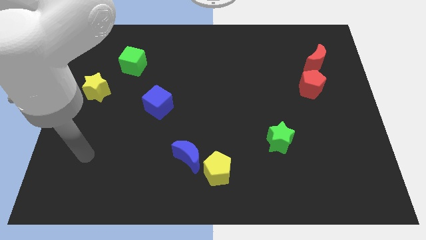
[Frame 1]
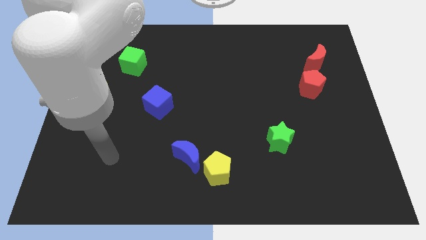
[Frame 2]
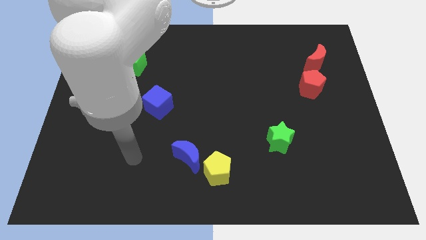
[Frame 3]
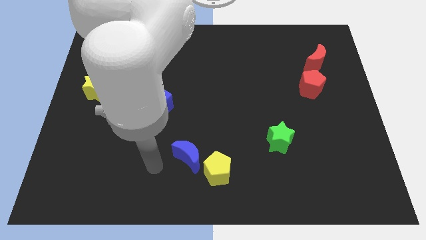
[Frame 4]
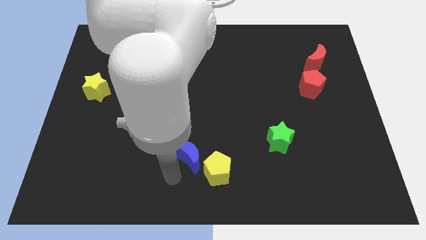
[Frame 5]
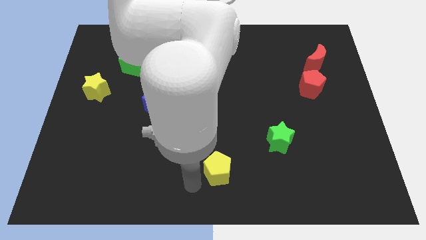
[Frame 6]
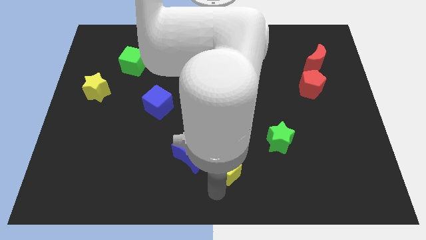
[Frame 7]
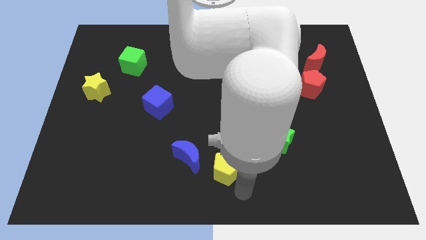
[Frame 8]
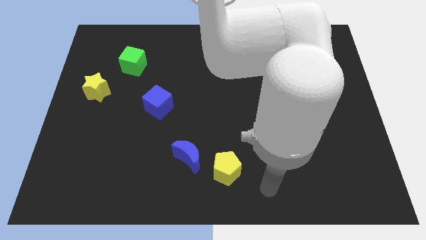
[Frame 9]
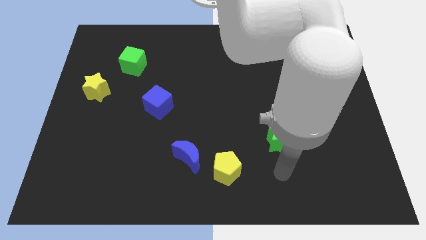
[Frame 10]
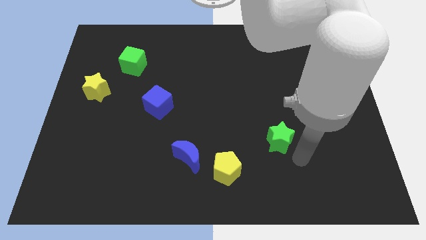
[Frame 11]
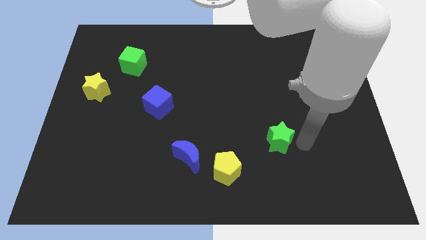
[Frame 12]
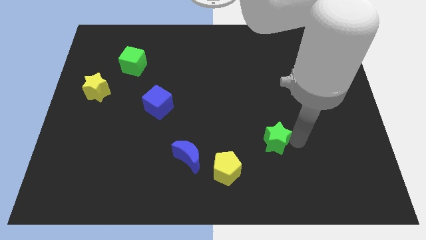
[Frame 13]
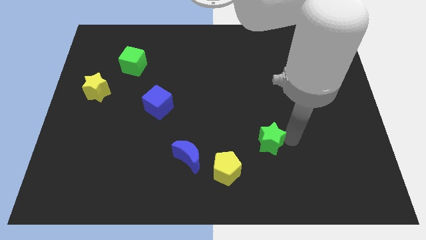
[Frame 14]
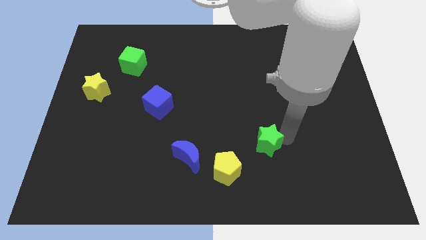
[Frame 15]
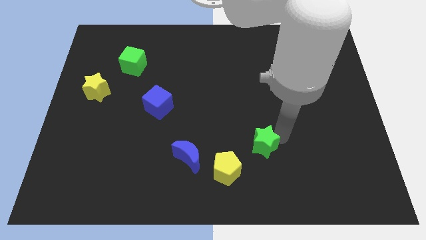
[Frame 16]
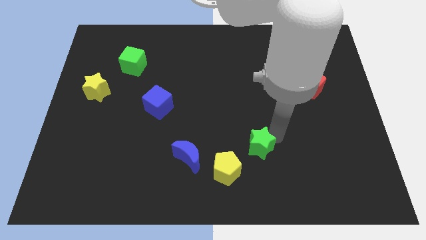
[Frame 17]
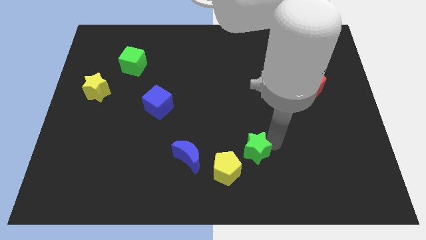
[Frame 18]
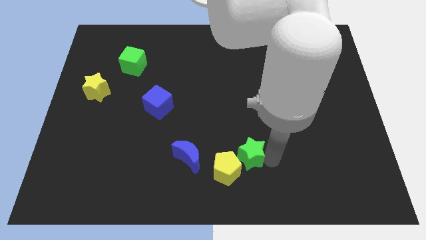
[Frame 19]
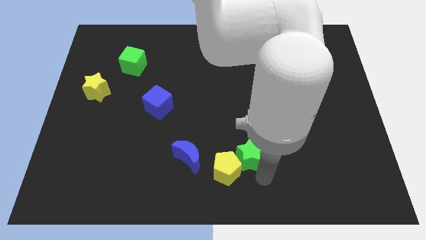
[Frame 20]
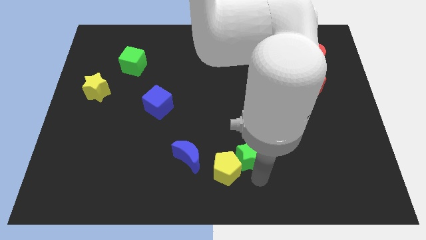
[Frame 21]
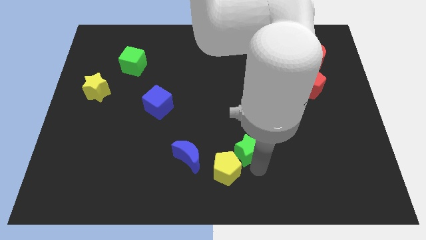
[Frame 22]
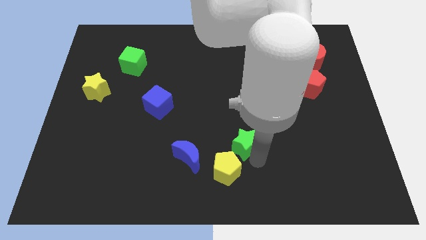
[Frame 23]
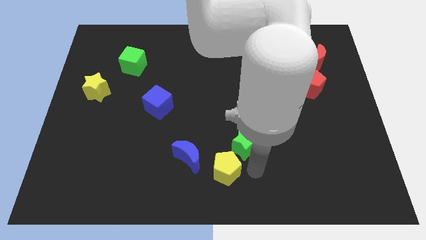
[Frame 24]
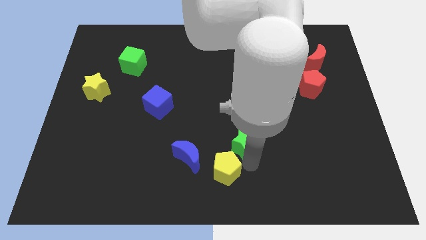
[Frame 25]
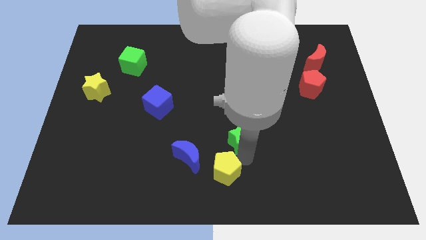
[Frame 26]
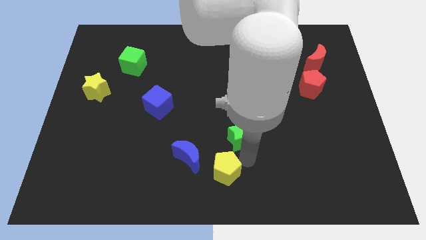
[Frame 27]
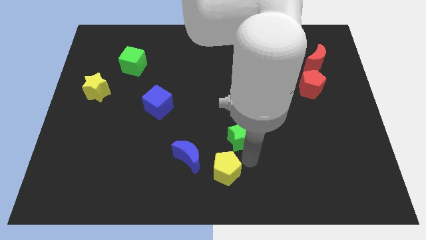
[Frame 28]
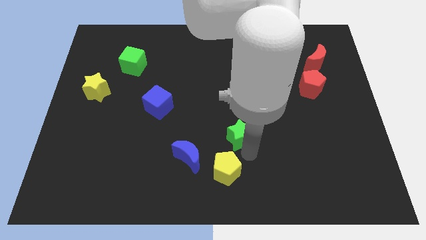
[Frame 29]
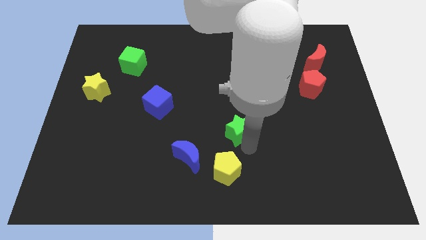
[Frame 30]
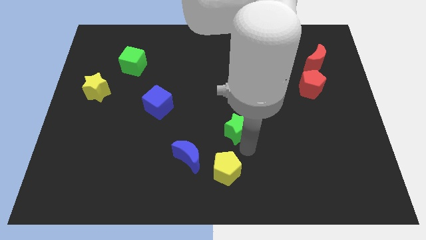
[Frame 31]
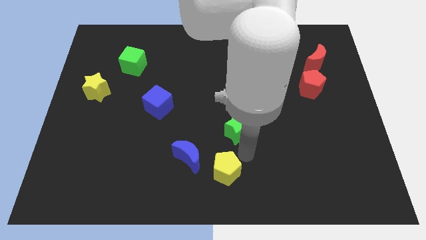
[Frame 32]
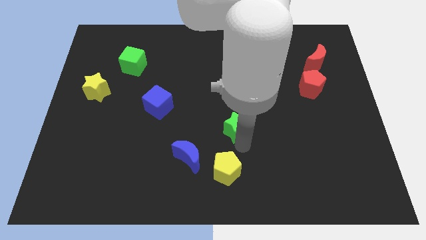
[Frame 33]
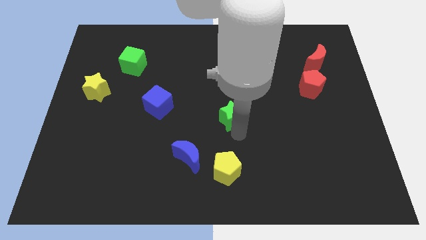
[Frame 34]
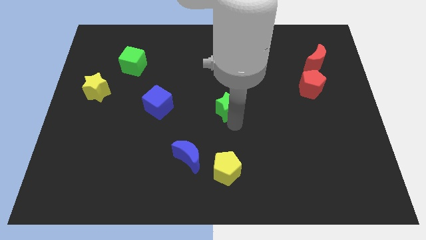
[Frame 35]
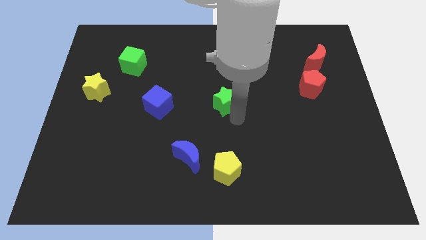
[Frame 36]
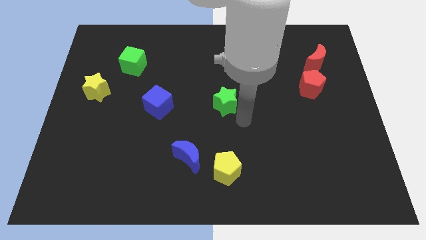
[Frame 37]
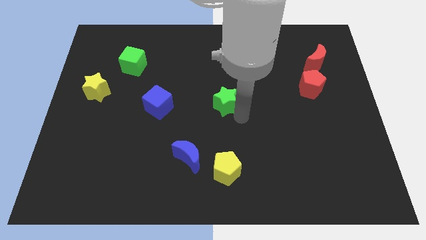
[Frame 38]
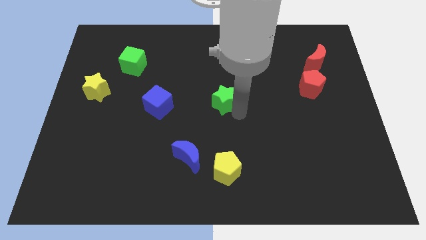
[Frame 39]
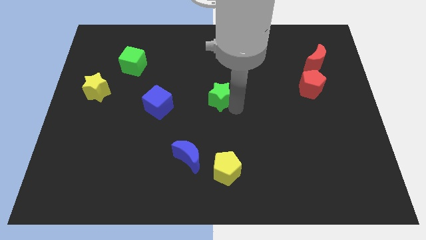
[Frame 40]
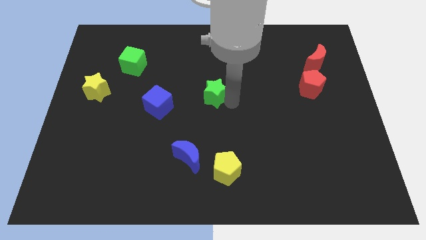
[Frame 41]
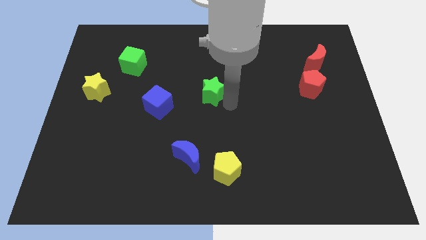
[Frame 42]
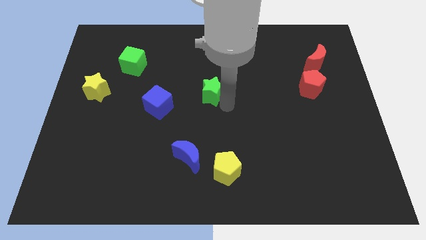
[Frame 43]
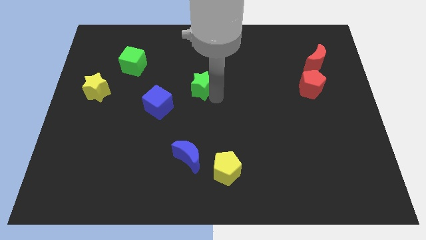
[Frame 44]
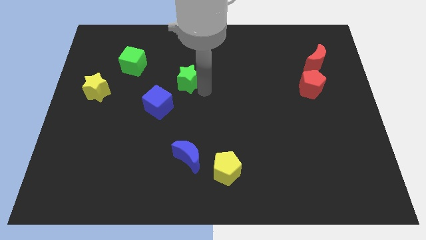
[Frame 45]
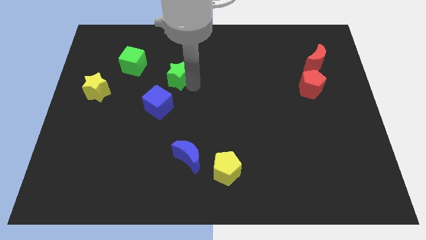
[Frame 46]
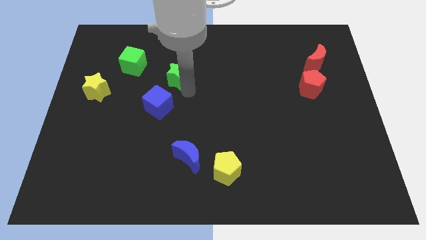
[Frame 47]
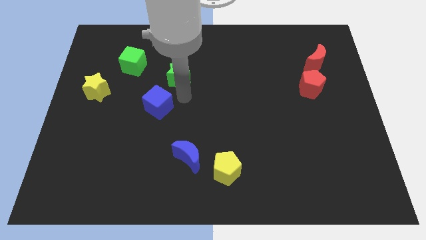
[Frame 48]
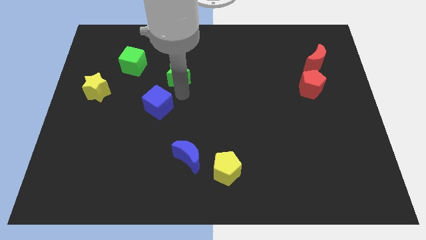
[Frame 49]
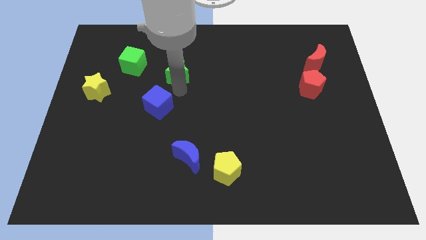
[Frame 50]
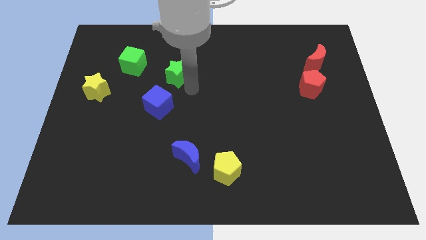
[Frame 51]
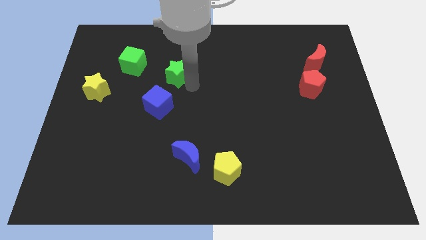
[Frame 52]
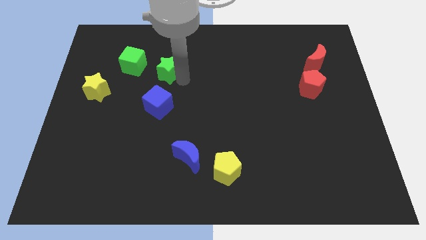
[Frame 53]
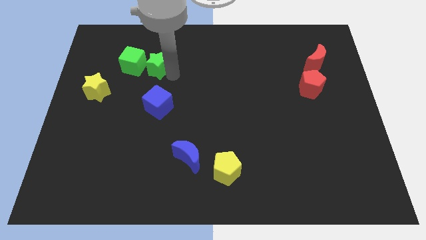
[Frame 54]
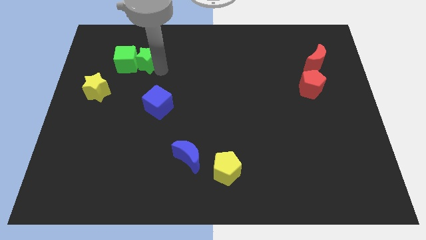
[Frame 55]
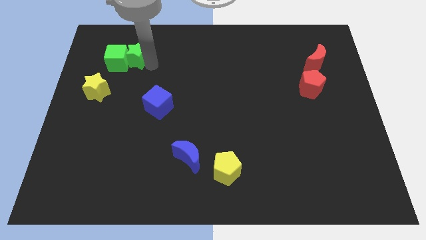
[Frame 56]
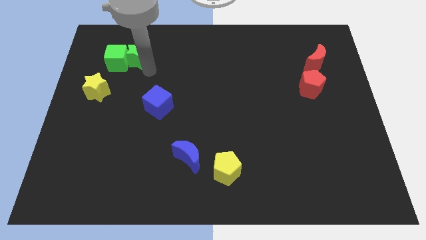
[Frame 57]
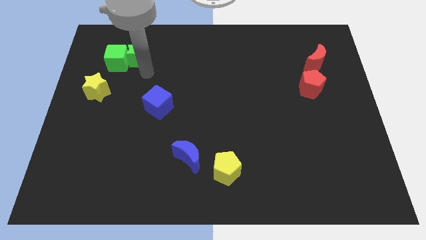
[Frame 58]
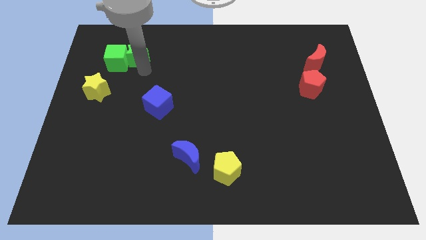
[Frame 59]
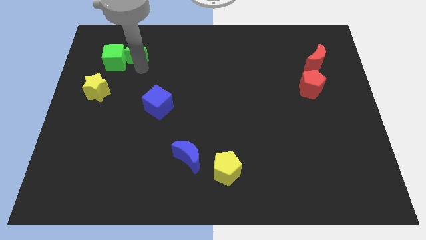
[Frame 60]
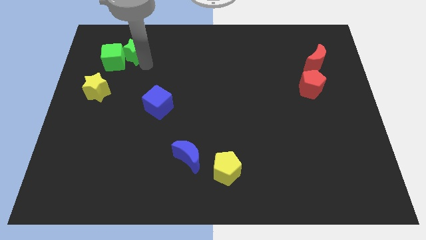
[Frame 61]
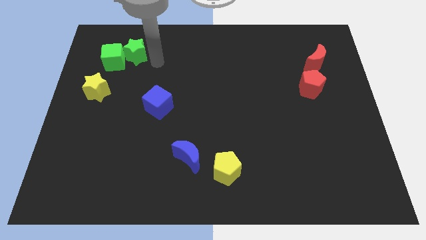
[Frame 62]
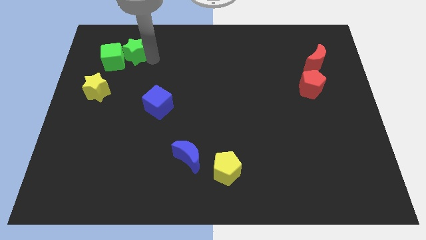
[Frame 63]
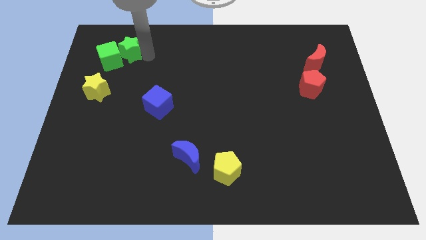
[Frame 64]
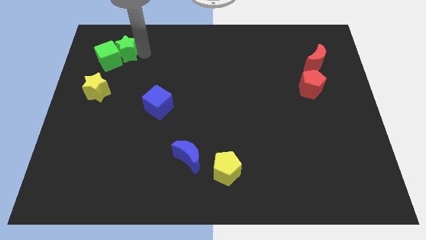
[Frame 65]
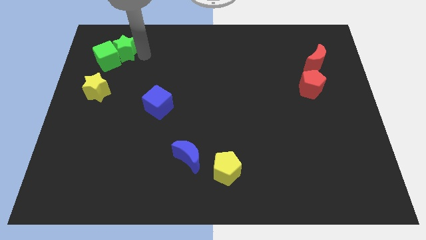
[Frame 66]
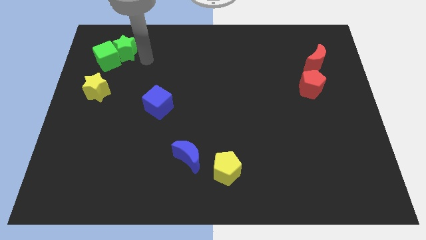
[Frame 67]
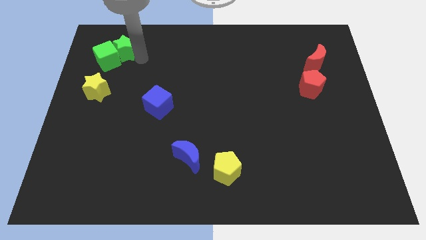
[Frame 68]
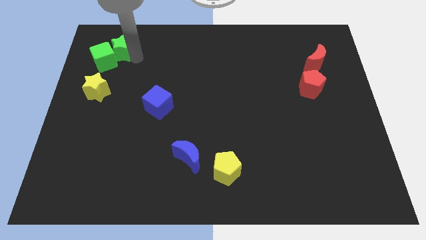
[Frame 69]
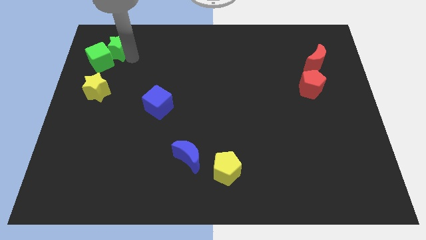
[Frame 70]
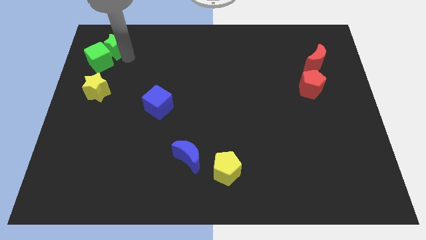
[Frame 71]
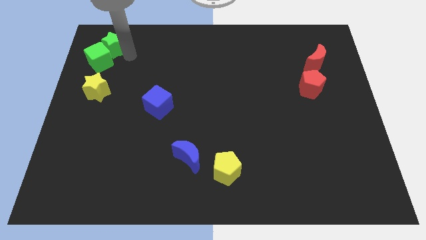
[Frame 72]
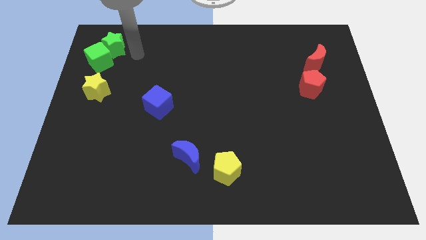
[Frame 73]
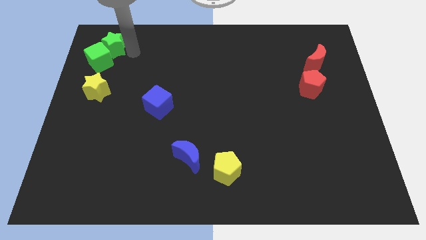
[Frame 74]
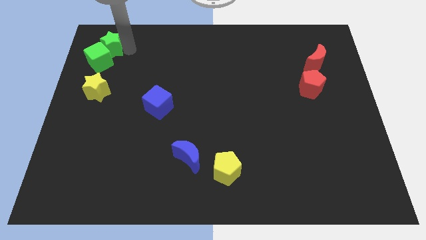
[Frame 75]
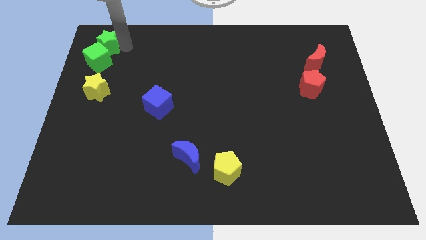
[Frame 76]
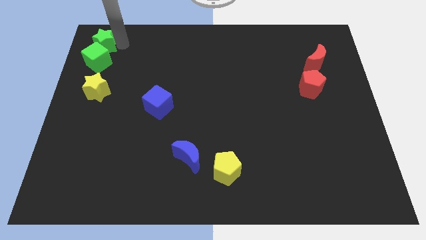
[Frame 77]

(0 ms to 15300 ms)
move the green star to the upper left corner
